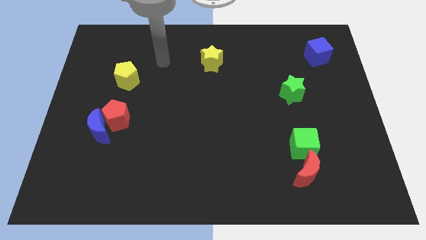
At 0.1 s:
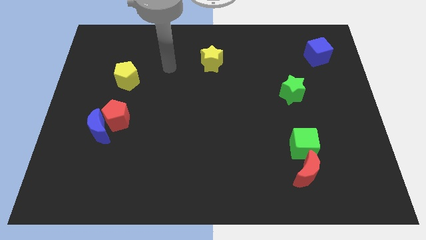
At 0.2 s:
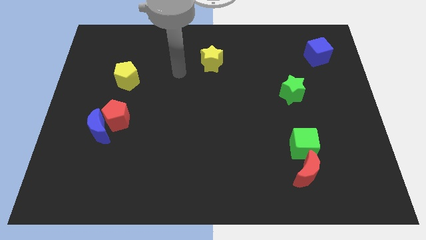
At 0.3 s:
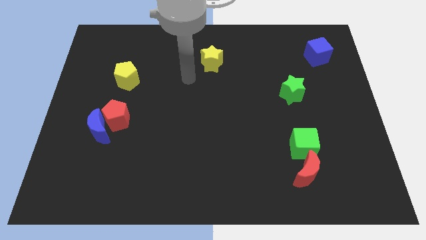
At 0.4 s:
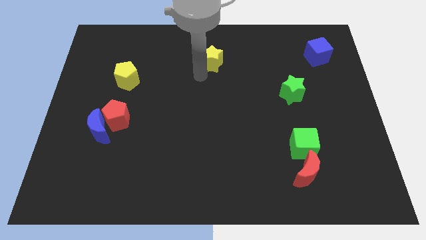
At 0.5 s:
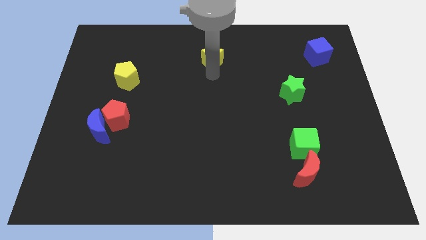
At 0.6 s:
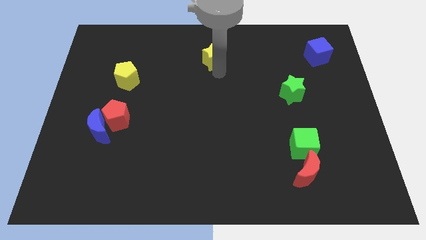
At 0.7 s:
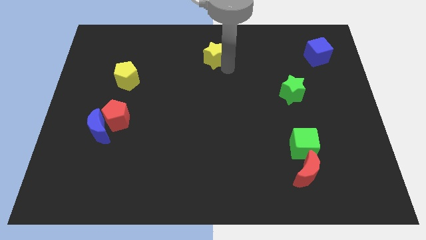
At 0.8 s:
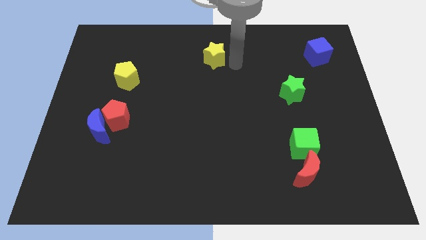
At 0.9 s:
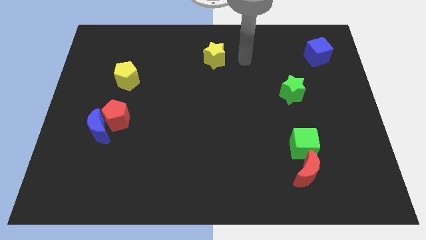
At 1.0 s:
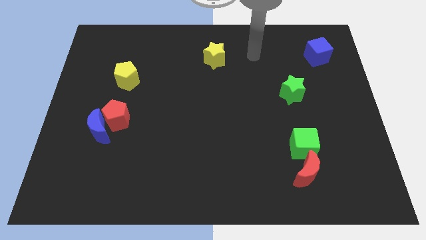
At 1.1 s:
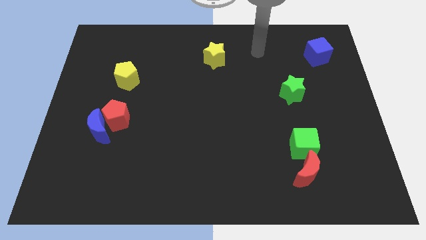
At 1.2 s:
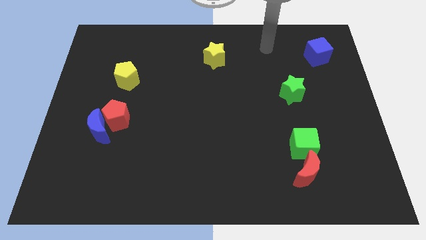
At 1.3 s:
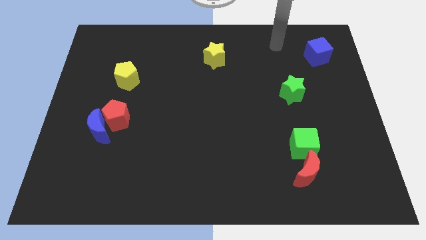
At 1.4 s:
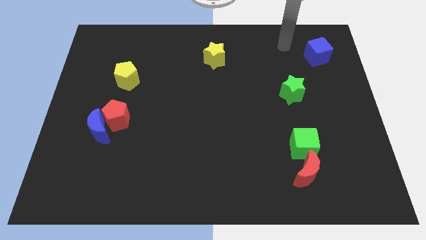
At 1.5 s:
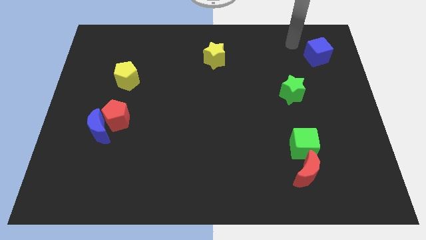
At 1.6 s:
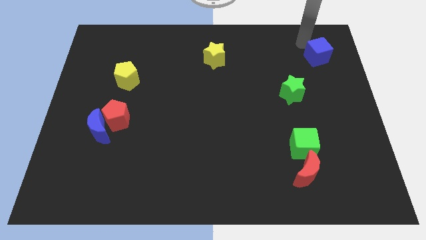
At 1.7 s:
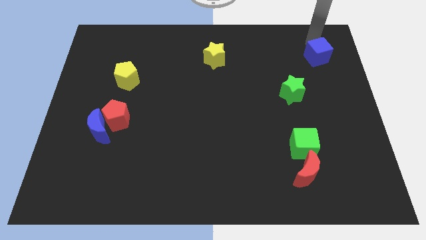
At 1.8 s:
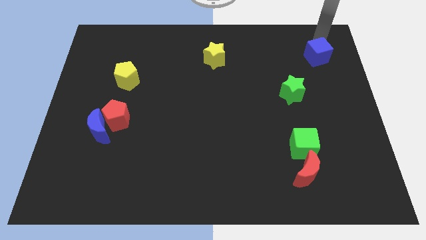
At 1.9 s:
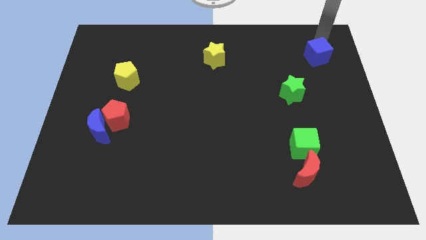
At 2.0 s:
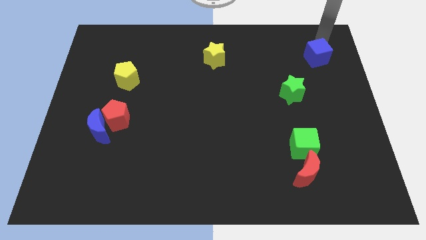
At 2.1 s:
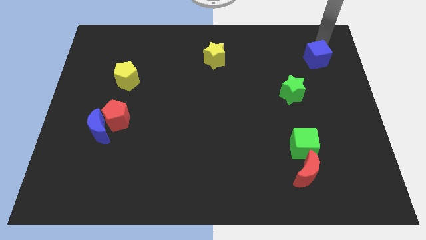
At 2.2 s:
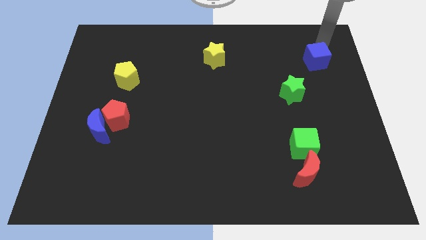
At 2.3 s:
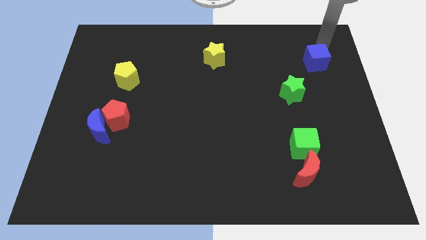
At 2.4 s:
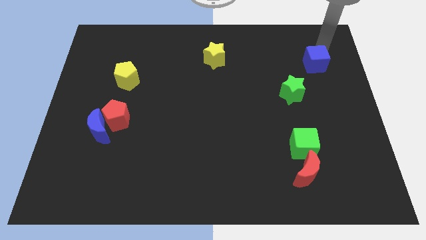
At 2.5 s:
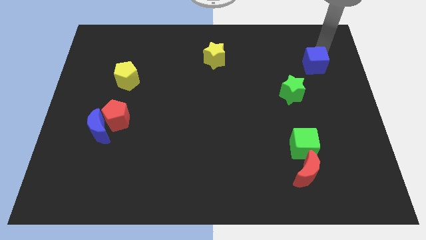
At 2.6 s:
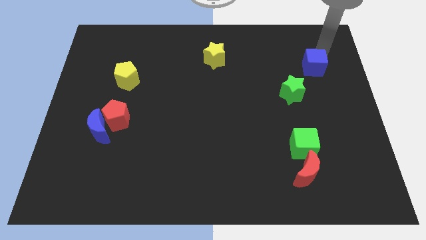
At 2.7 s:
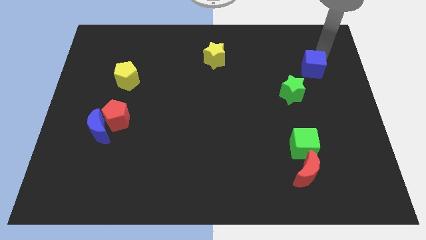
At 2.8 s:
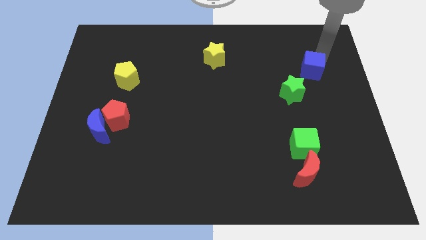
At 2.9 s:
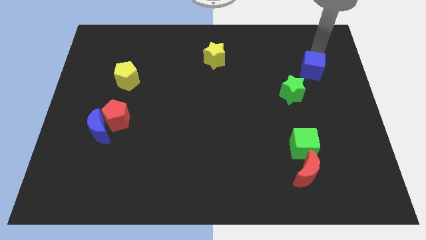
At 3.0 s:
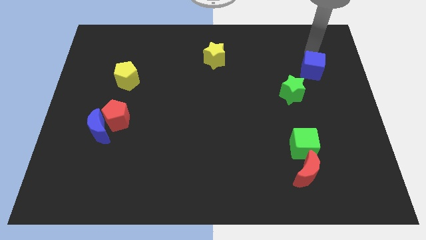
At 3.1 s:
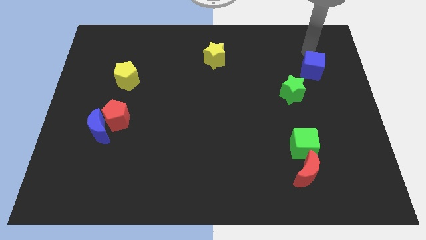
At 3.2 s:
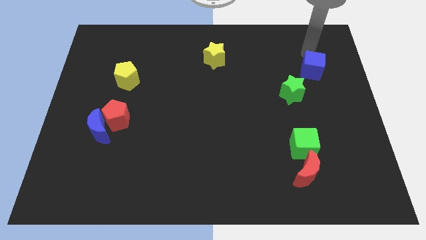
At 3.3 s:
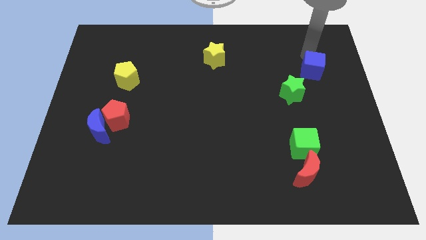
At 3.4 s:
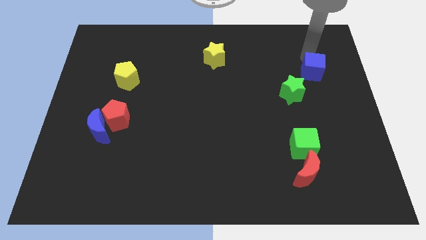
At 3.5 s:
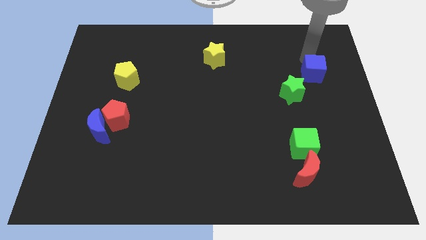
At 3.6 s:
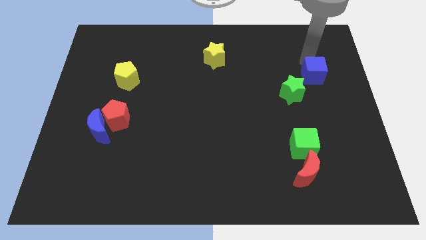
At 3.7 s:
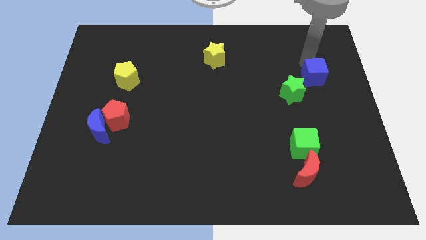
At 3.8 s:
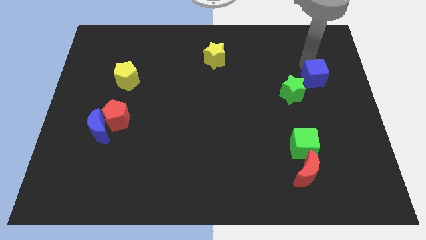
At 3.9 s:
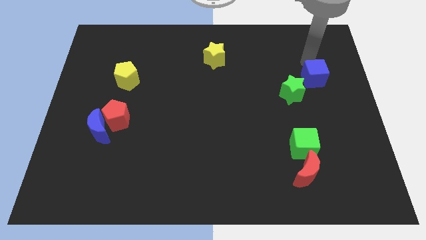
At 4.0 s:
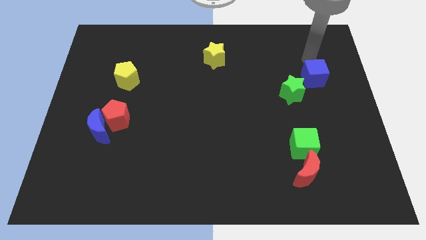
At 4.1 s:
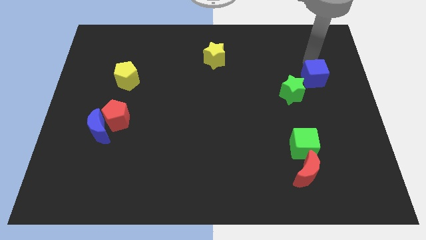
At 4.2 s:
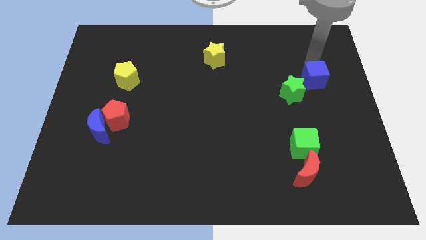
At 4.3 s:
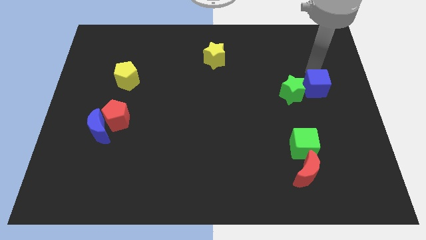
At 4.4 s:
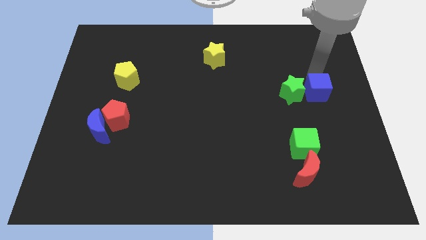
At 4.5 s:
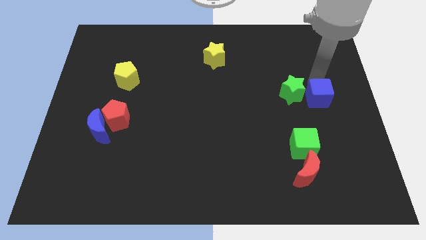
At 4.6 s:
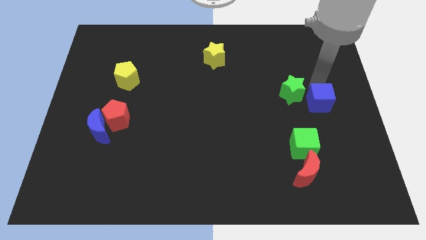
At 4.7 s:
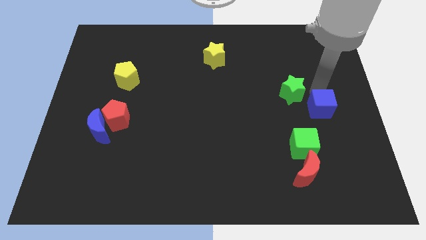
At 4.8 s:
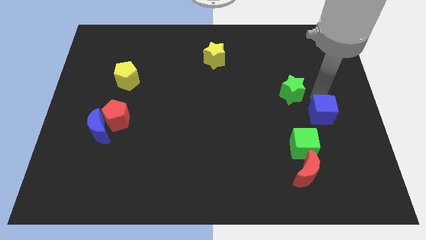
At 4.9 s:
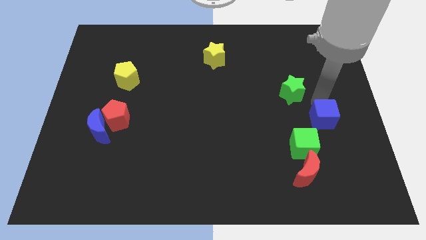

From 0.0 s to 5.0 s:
move the blue cube down

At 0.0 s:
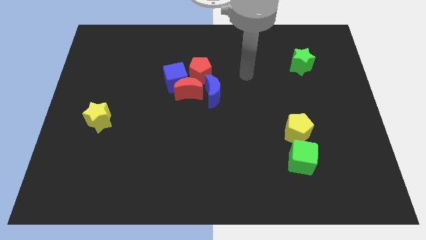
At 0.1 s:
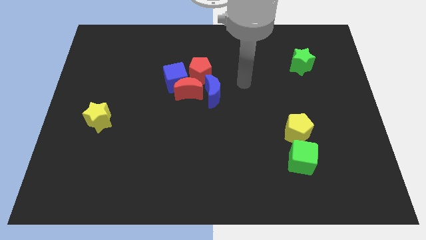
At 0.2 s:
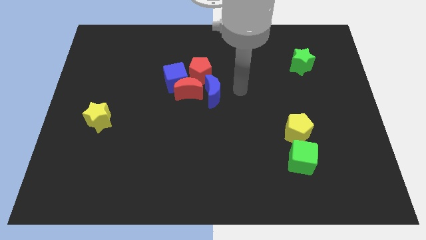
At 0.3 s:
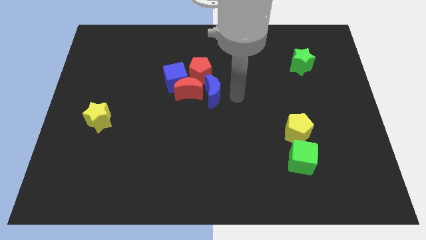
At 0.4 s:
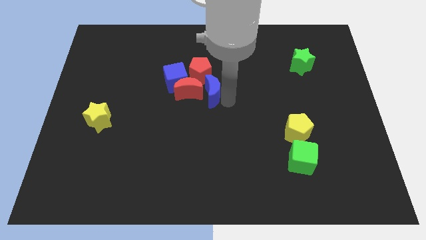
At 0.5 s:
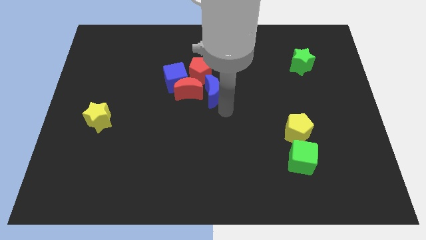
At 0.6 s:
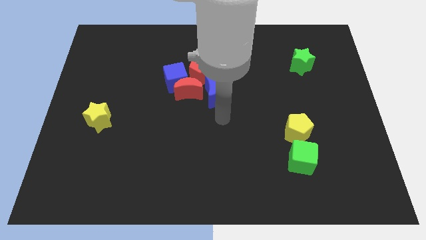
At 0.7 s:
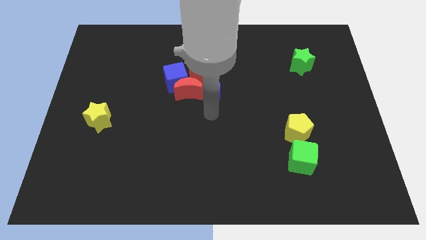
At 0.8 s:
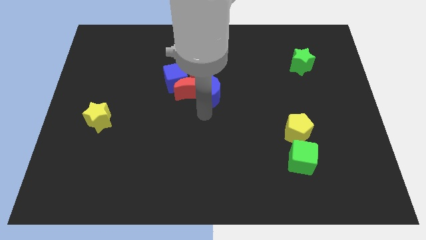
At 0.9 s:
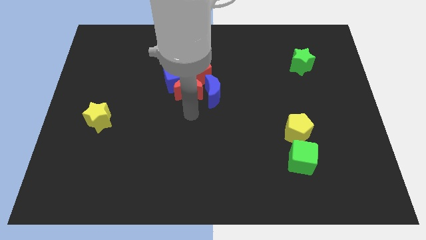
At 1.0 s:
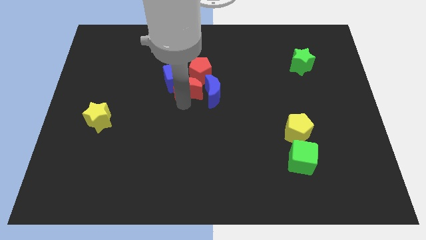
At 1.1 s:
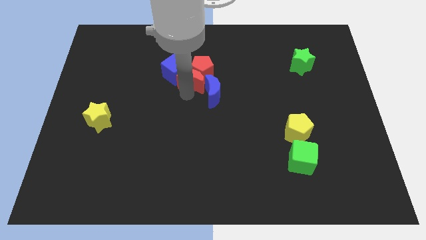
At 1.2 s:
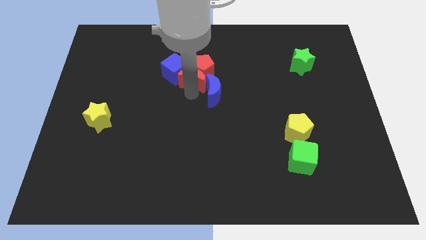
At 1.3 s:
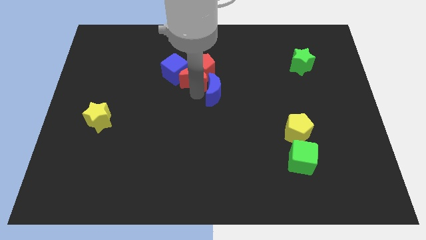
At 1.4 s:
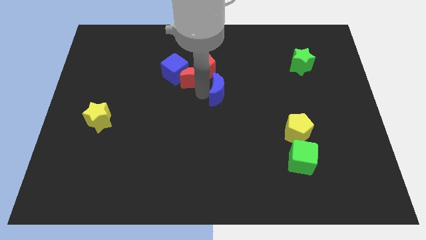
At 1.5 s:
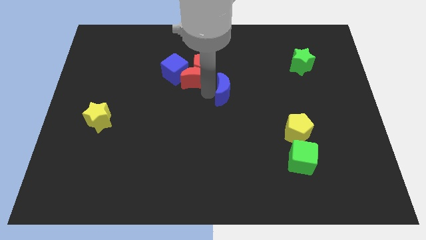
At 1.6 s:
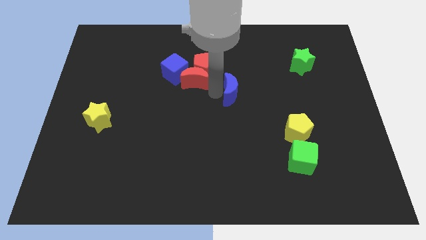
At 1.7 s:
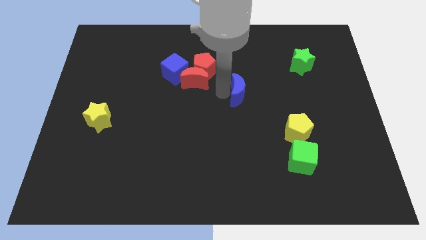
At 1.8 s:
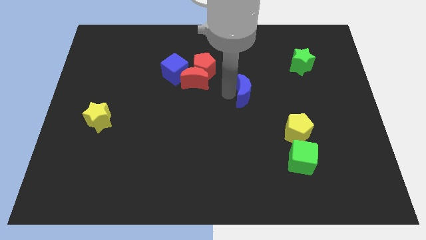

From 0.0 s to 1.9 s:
slightly move the blue moon right

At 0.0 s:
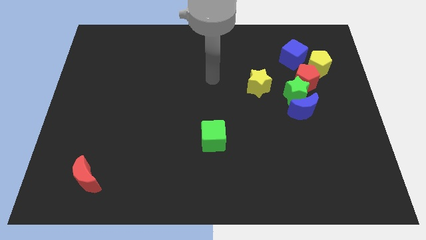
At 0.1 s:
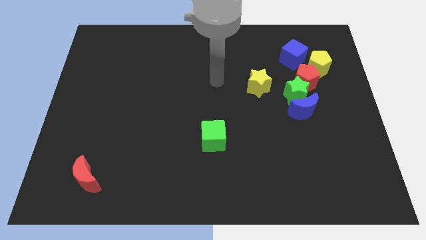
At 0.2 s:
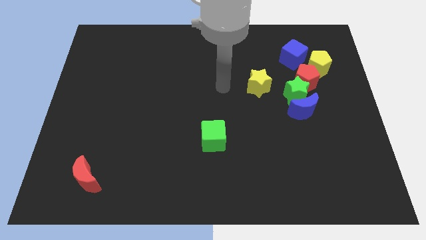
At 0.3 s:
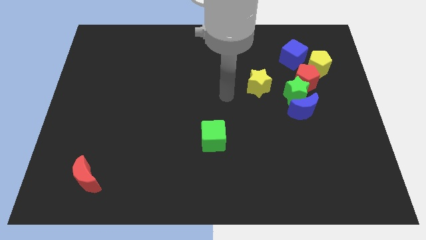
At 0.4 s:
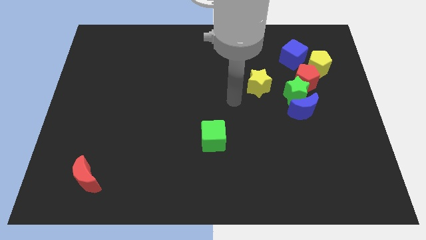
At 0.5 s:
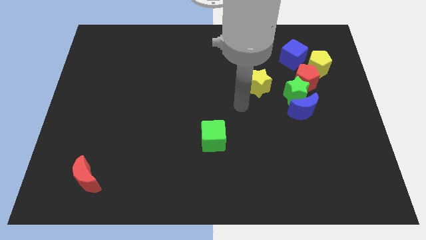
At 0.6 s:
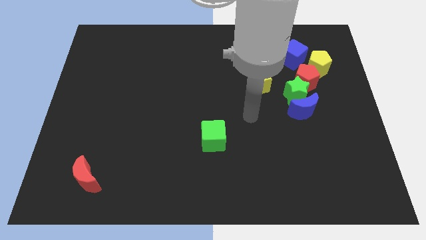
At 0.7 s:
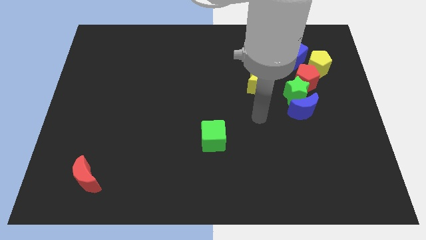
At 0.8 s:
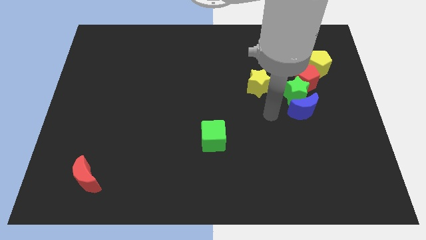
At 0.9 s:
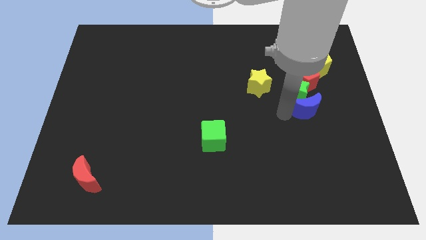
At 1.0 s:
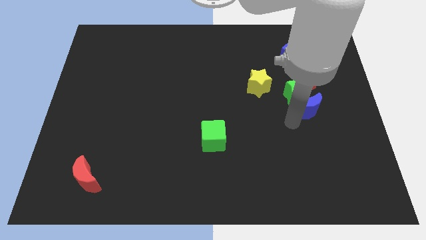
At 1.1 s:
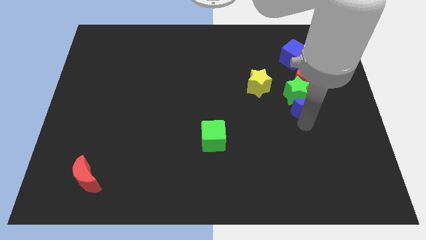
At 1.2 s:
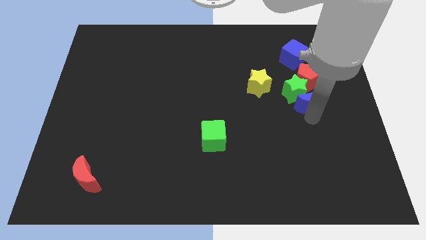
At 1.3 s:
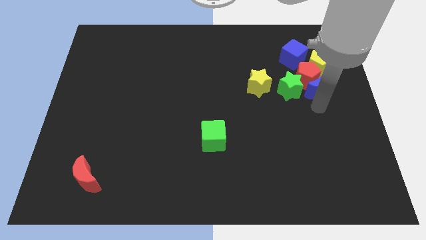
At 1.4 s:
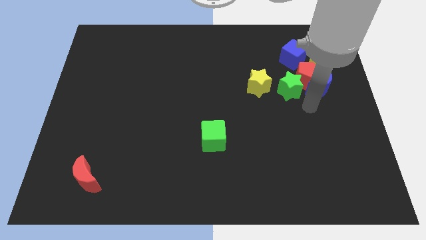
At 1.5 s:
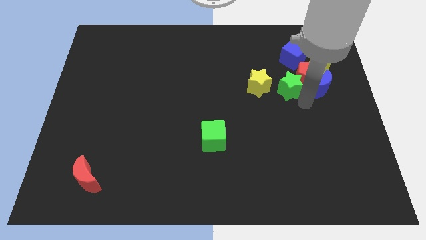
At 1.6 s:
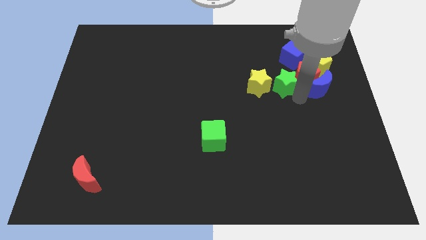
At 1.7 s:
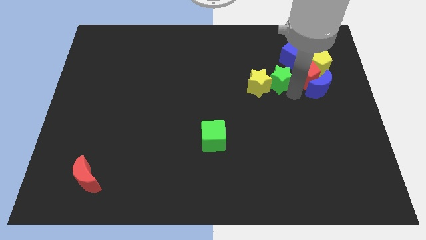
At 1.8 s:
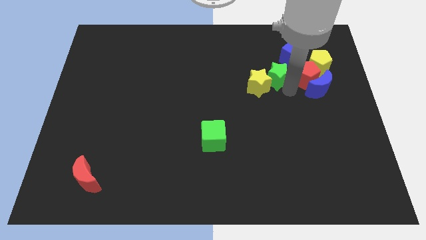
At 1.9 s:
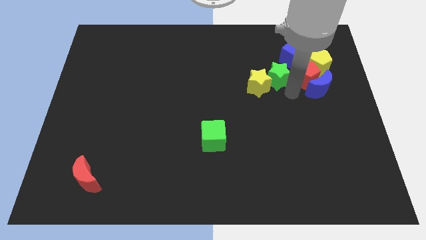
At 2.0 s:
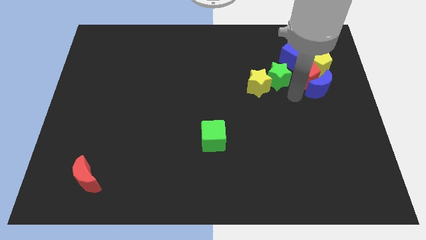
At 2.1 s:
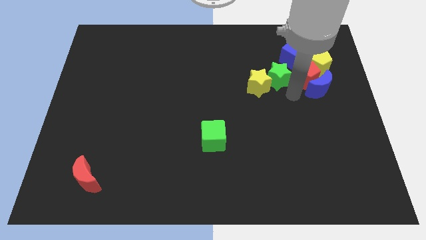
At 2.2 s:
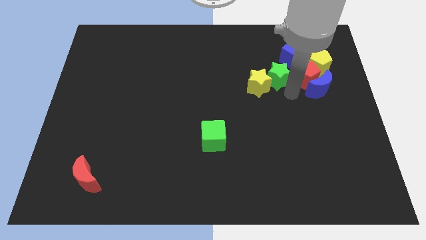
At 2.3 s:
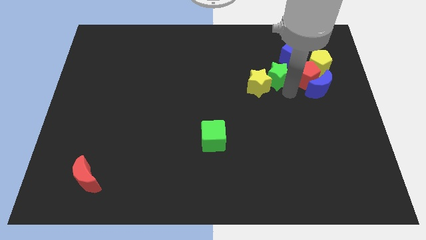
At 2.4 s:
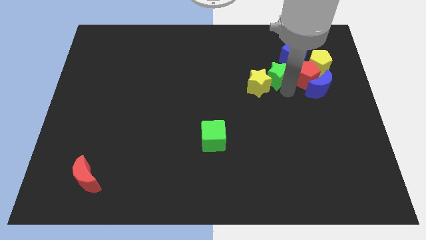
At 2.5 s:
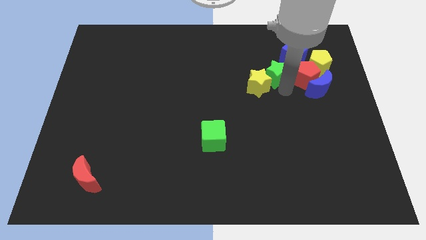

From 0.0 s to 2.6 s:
slightly push the green star diagonally upwards and left
